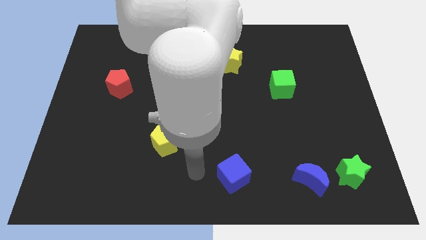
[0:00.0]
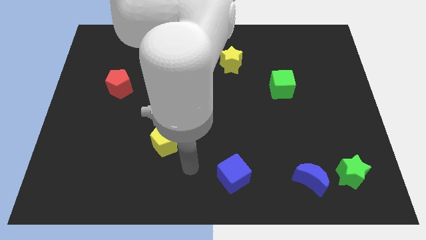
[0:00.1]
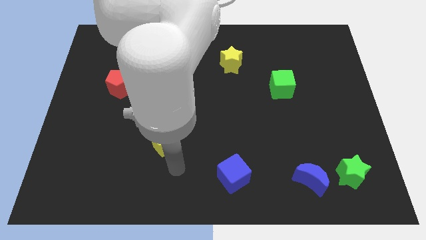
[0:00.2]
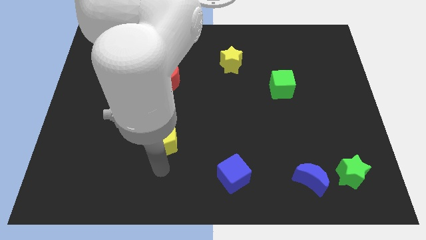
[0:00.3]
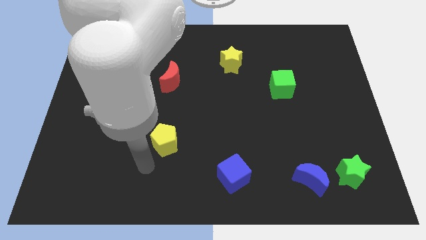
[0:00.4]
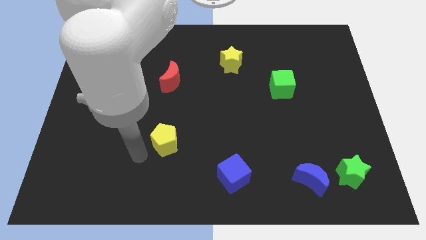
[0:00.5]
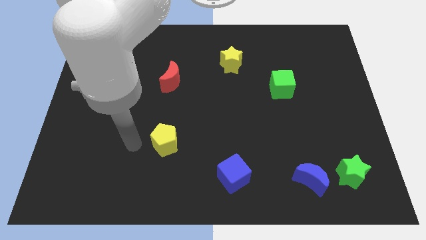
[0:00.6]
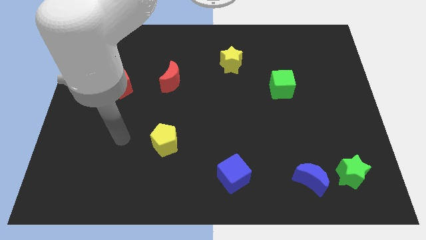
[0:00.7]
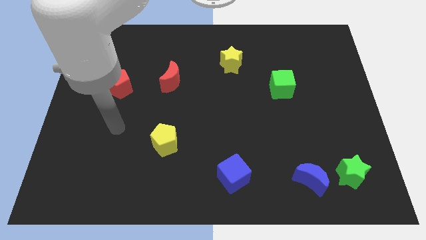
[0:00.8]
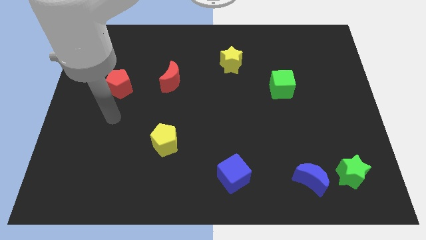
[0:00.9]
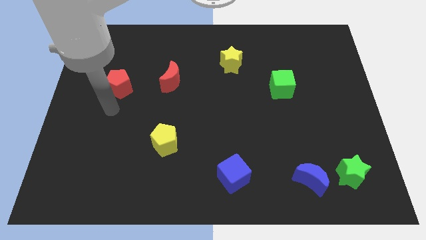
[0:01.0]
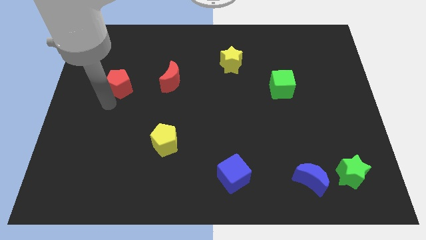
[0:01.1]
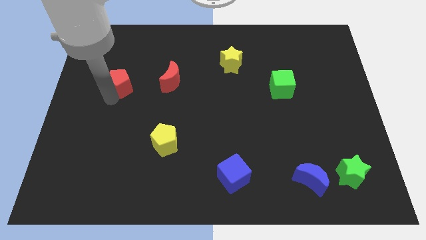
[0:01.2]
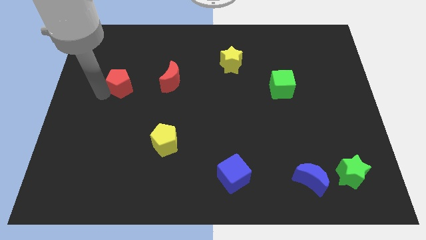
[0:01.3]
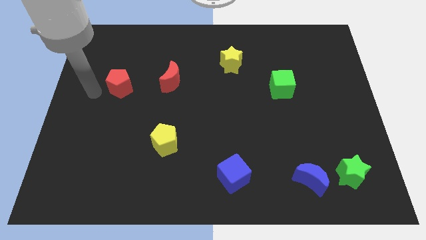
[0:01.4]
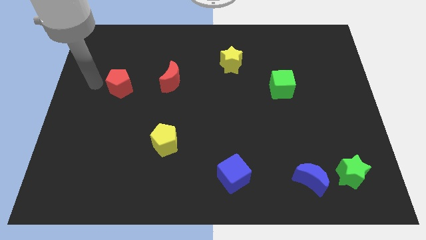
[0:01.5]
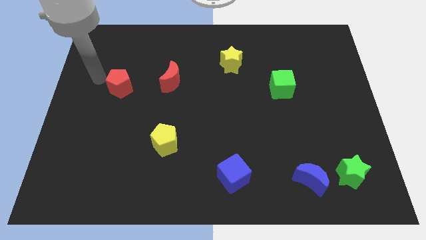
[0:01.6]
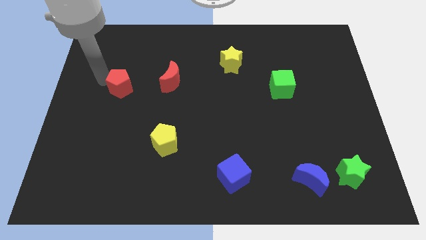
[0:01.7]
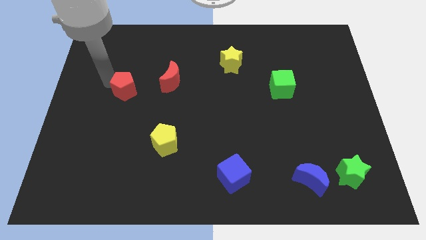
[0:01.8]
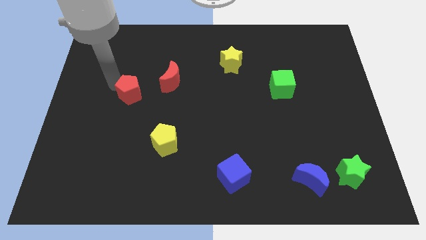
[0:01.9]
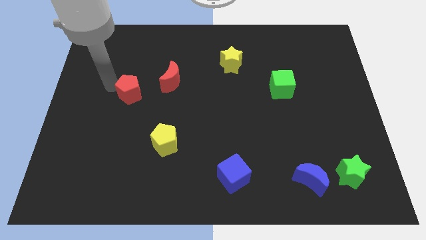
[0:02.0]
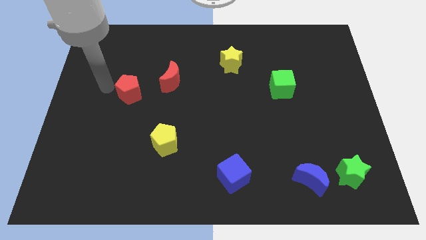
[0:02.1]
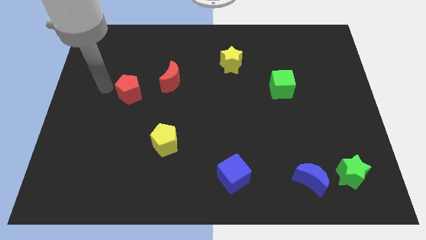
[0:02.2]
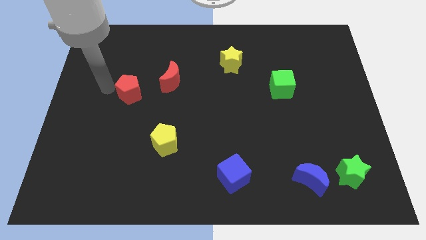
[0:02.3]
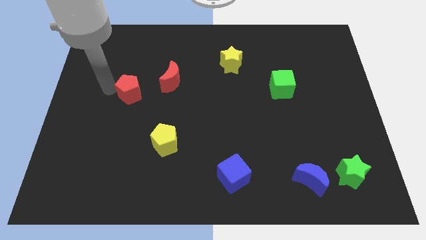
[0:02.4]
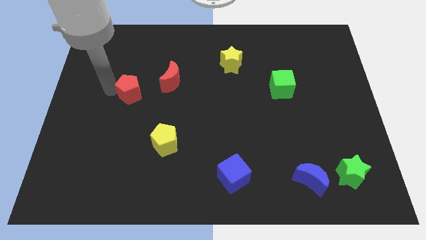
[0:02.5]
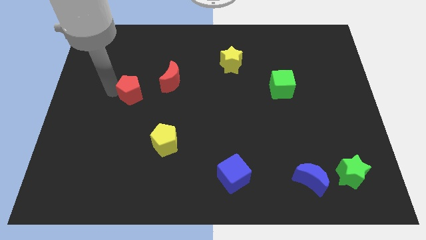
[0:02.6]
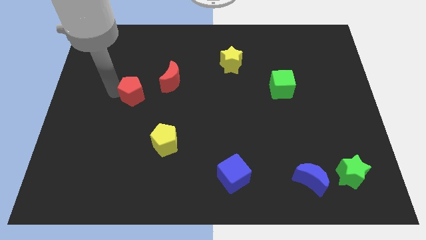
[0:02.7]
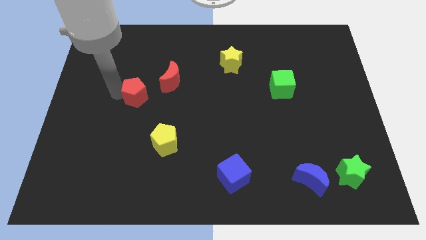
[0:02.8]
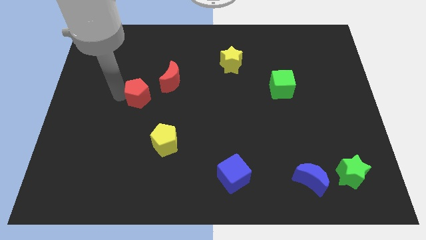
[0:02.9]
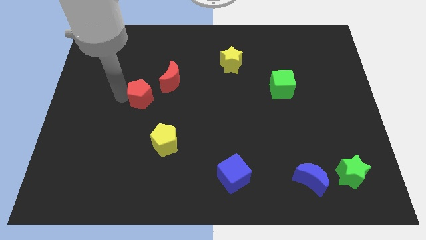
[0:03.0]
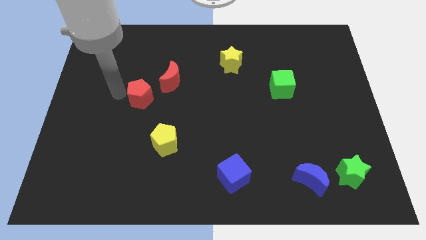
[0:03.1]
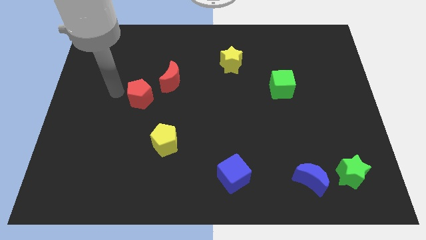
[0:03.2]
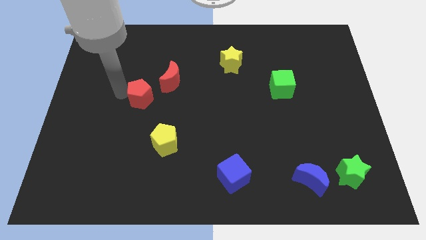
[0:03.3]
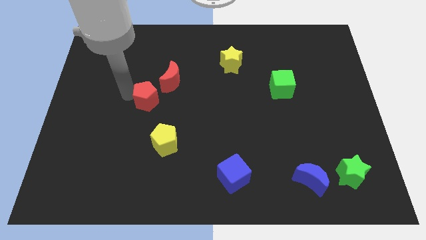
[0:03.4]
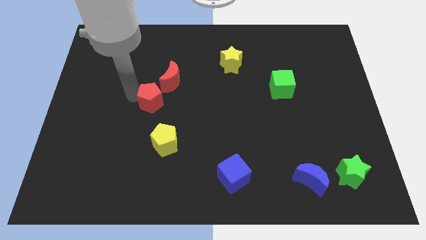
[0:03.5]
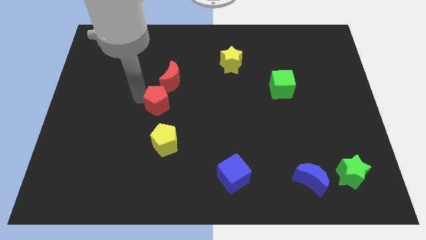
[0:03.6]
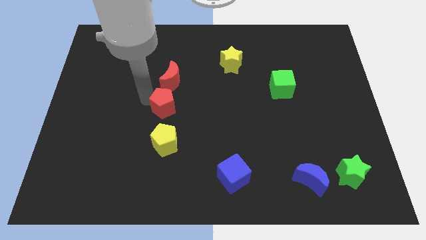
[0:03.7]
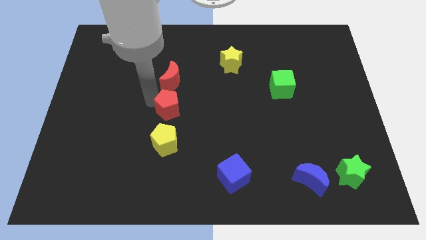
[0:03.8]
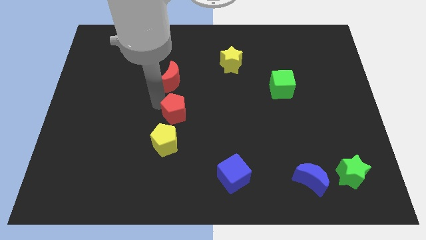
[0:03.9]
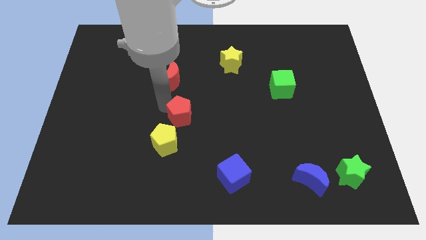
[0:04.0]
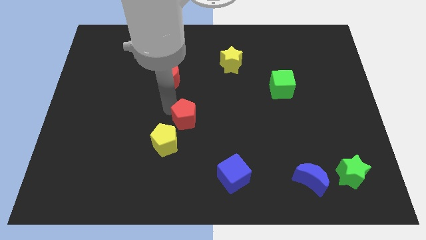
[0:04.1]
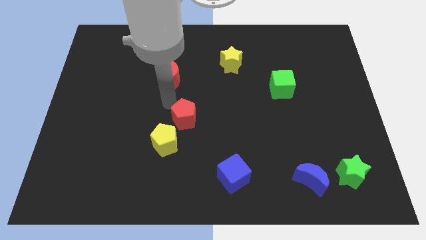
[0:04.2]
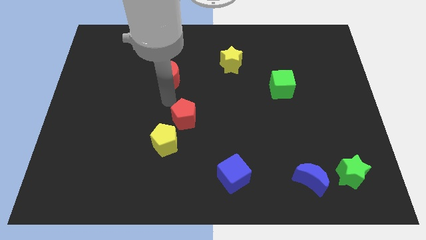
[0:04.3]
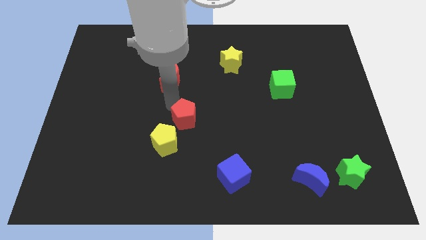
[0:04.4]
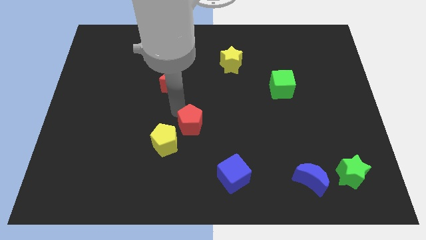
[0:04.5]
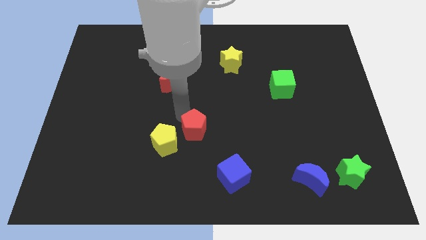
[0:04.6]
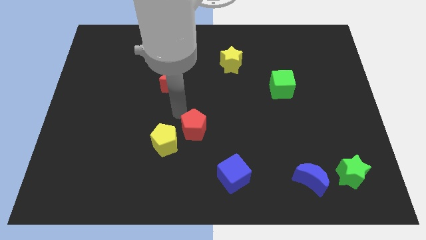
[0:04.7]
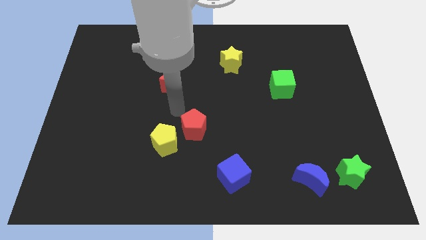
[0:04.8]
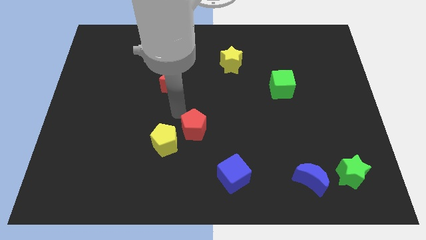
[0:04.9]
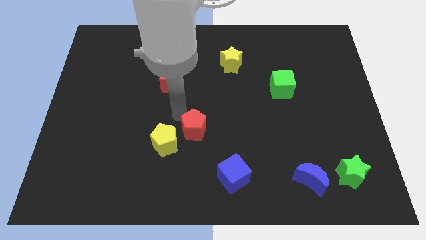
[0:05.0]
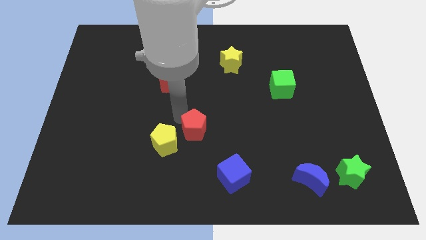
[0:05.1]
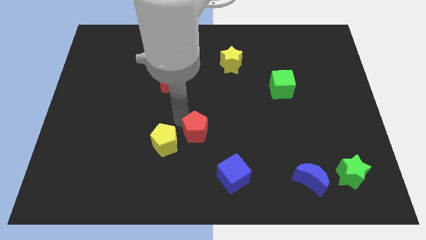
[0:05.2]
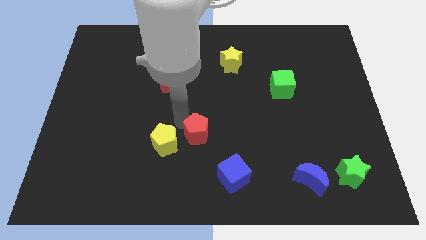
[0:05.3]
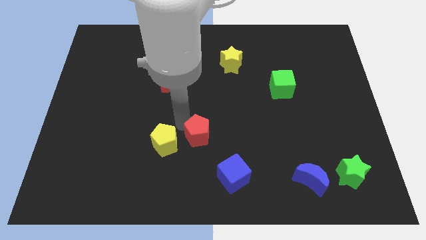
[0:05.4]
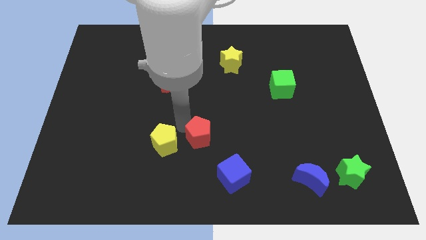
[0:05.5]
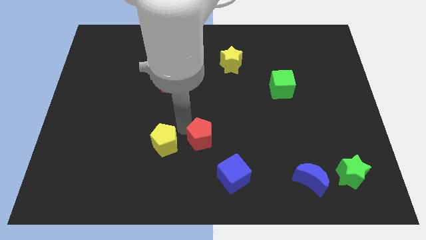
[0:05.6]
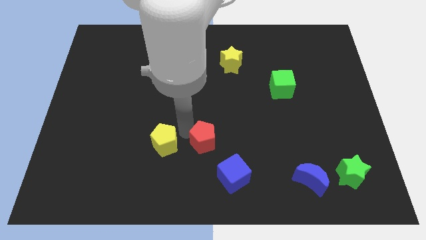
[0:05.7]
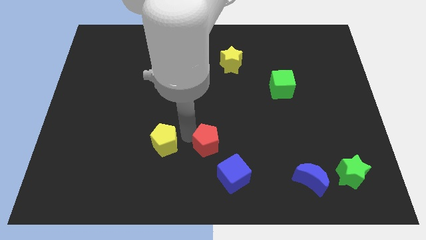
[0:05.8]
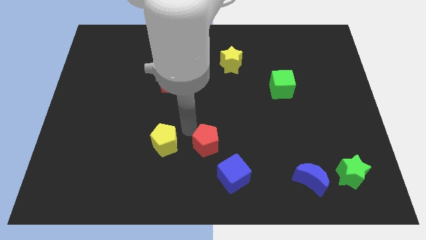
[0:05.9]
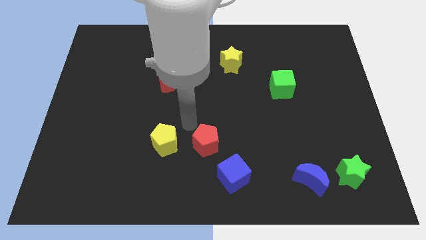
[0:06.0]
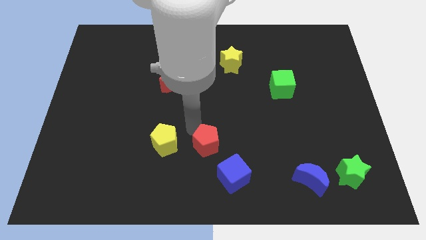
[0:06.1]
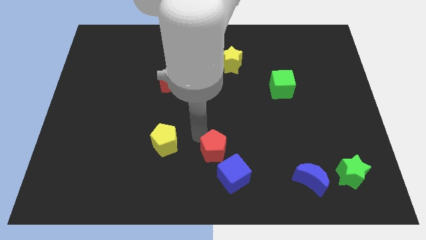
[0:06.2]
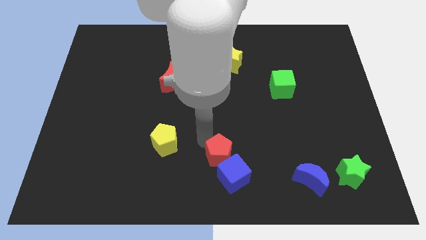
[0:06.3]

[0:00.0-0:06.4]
push the red pentagon towards the blue cube

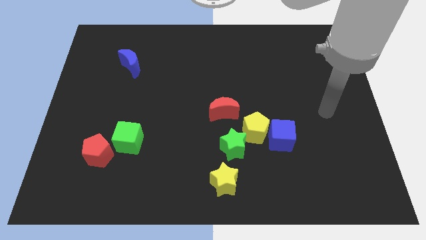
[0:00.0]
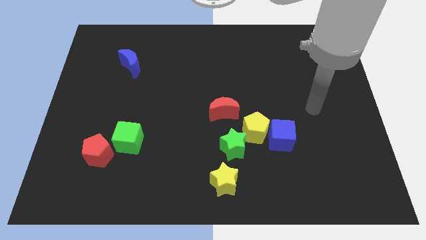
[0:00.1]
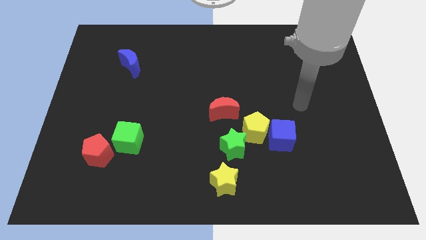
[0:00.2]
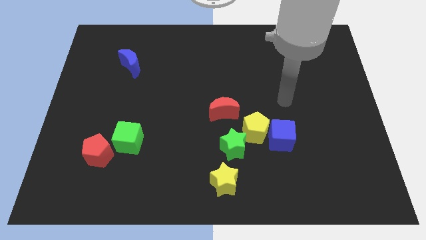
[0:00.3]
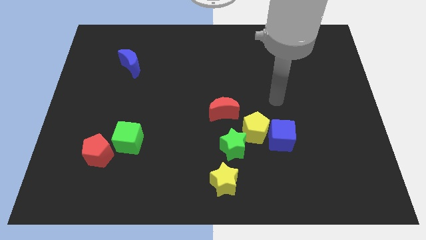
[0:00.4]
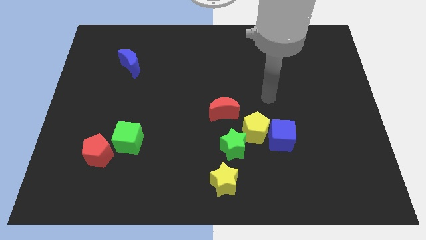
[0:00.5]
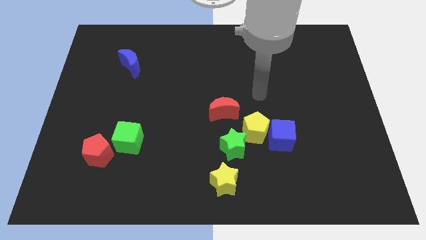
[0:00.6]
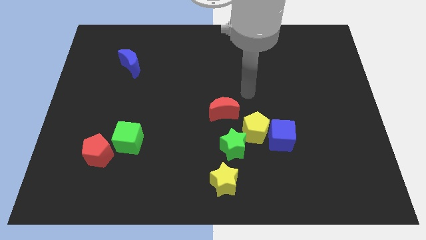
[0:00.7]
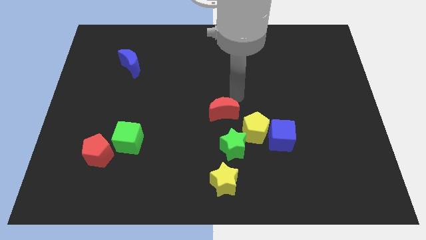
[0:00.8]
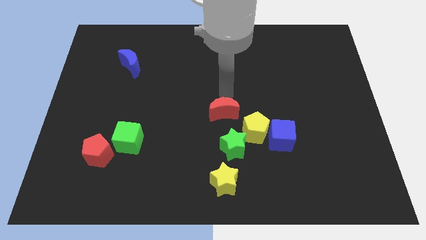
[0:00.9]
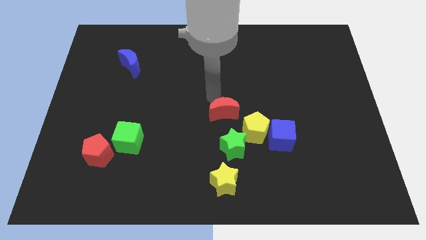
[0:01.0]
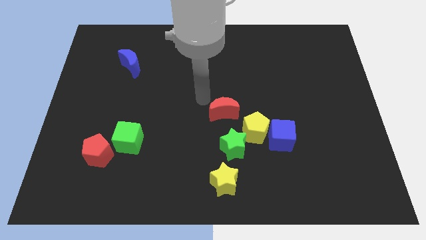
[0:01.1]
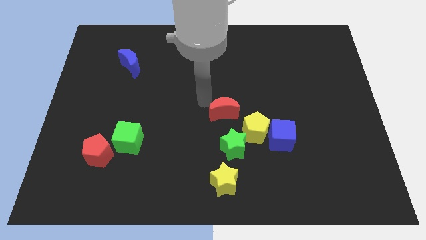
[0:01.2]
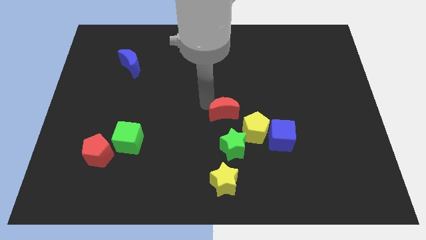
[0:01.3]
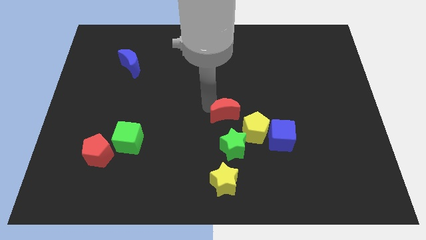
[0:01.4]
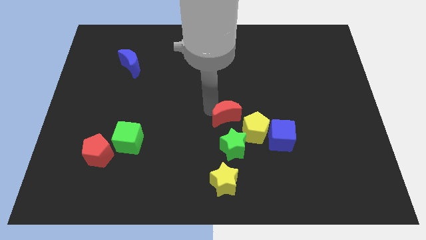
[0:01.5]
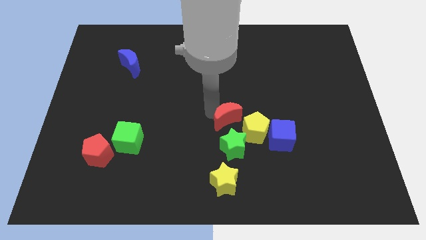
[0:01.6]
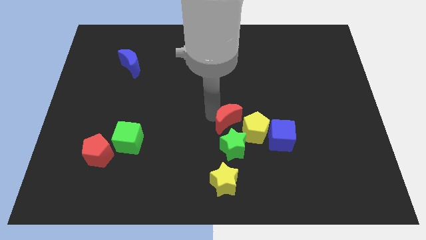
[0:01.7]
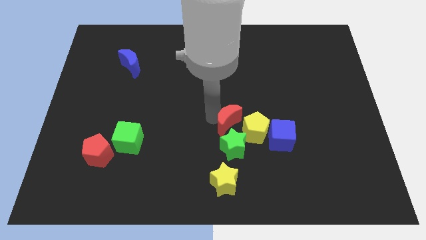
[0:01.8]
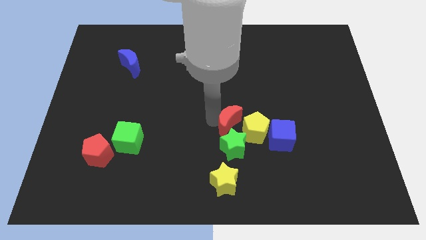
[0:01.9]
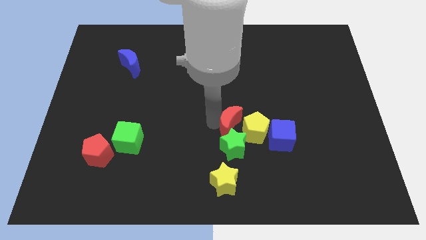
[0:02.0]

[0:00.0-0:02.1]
put the red moon next to the yellow pentagon
